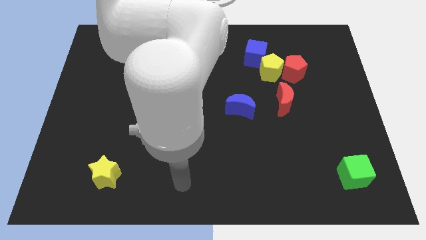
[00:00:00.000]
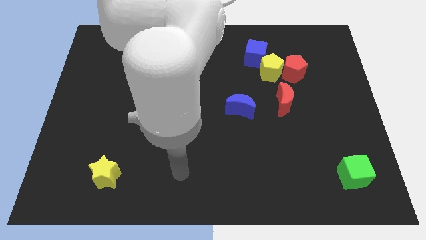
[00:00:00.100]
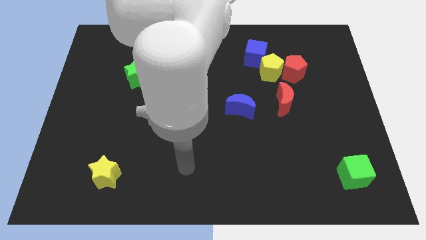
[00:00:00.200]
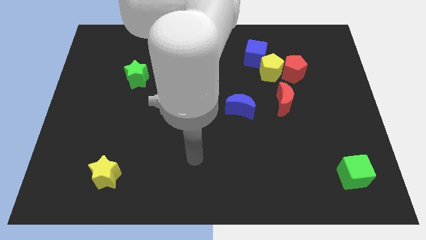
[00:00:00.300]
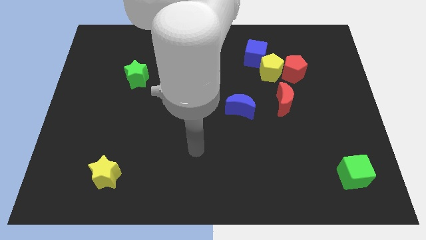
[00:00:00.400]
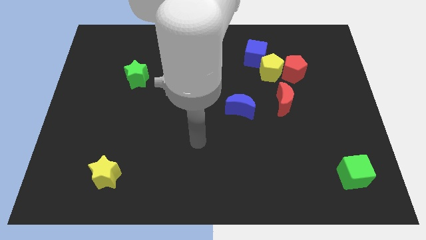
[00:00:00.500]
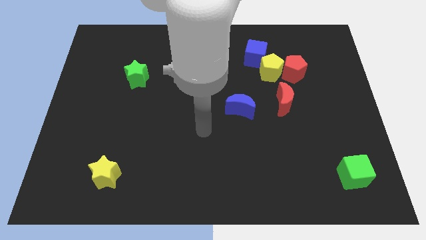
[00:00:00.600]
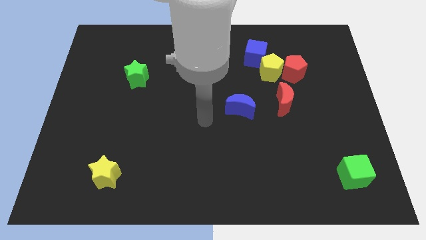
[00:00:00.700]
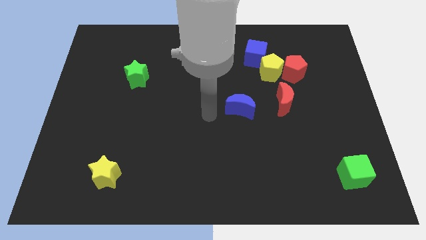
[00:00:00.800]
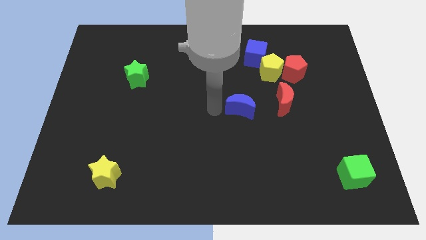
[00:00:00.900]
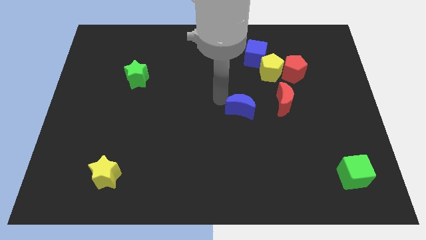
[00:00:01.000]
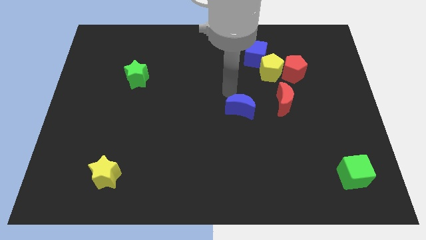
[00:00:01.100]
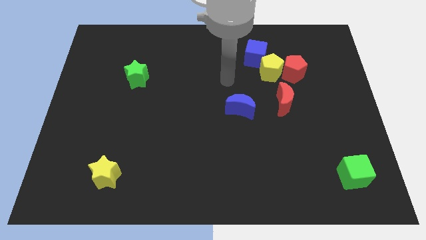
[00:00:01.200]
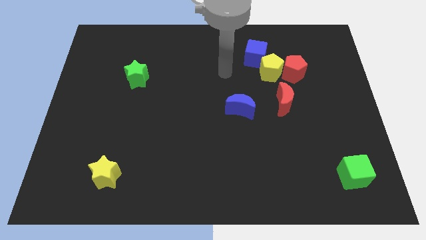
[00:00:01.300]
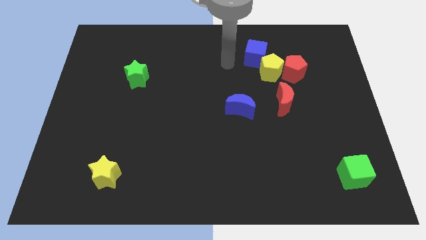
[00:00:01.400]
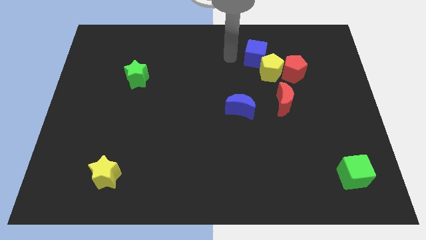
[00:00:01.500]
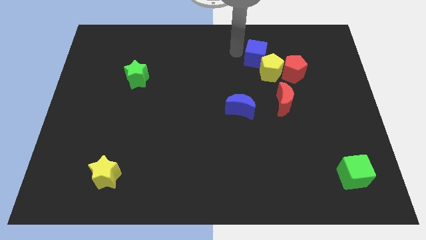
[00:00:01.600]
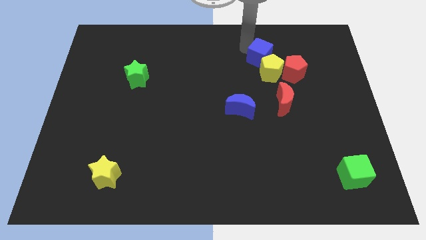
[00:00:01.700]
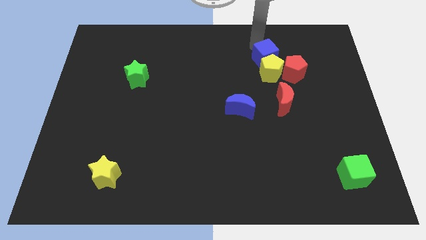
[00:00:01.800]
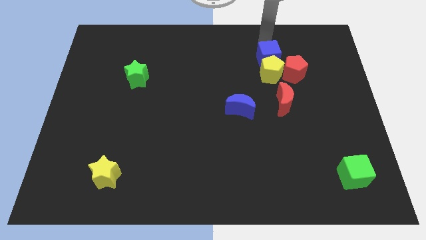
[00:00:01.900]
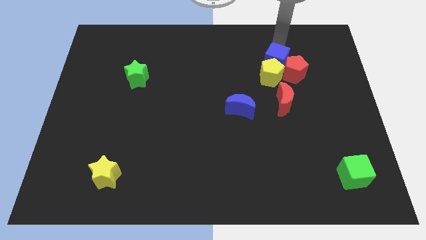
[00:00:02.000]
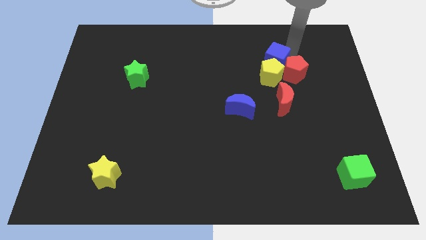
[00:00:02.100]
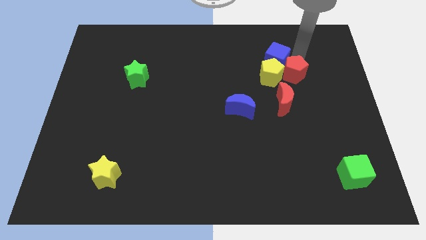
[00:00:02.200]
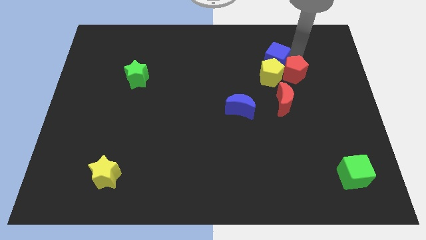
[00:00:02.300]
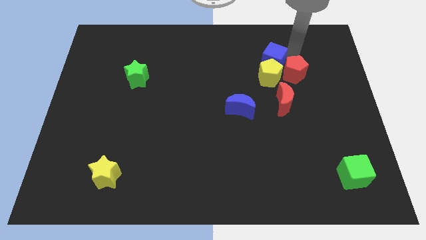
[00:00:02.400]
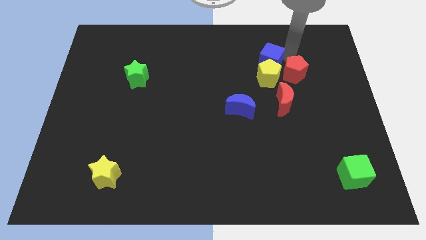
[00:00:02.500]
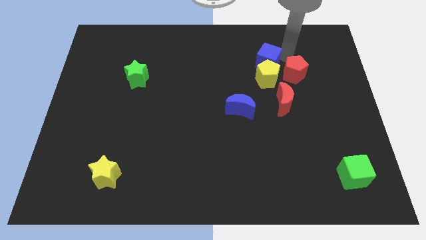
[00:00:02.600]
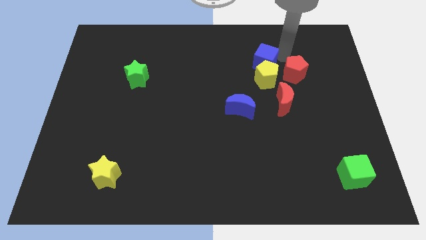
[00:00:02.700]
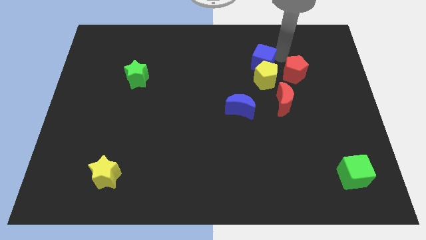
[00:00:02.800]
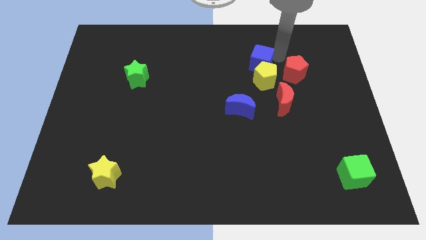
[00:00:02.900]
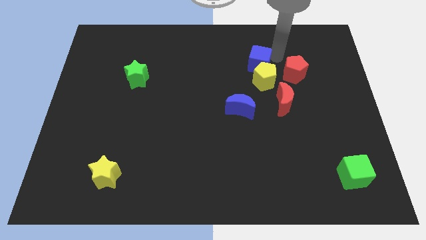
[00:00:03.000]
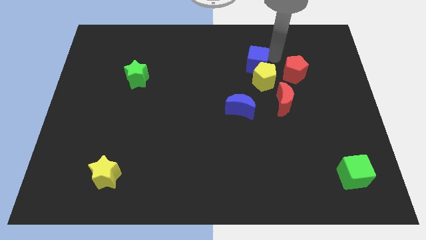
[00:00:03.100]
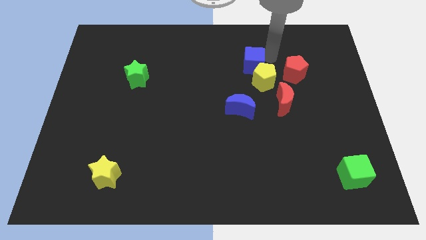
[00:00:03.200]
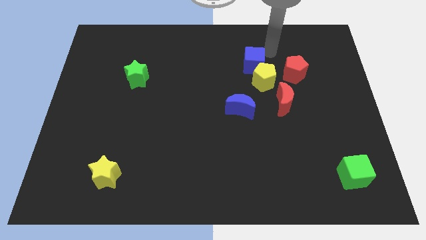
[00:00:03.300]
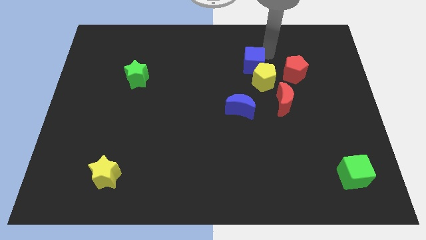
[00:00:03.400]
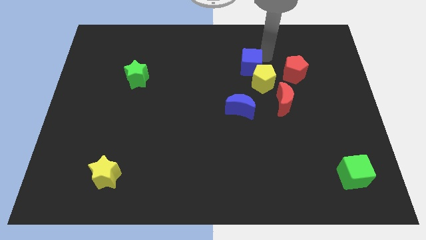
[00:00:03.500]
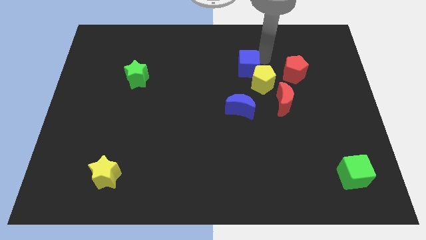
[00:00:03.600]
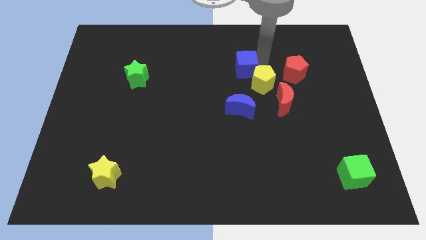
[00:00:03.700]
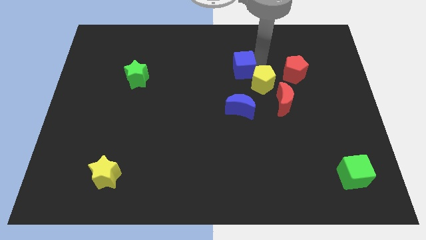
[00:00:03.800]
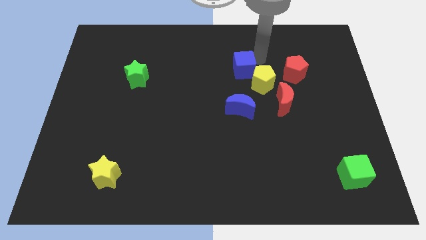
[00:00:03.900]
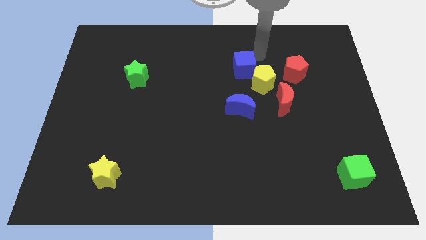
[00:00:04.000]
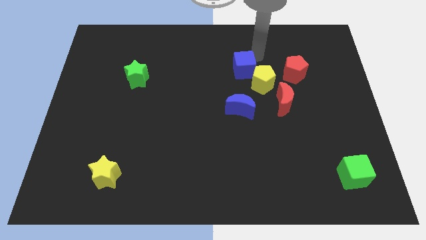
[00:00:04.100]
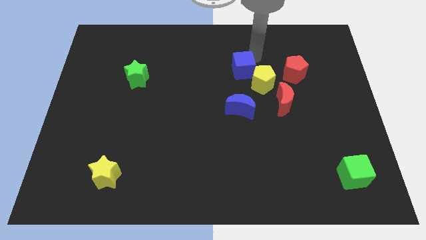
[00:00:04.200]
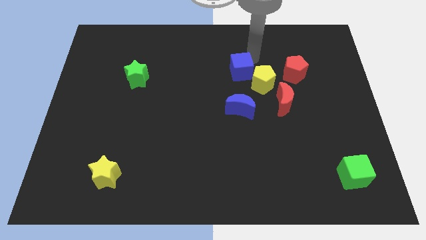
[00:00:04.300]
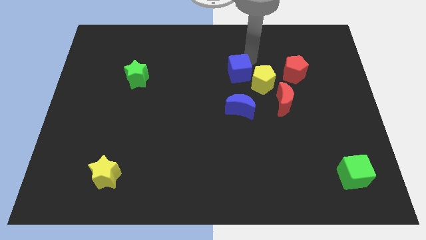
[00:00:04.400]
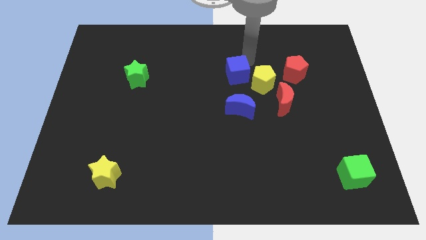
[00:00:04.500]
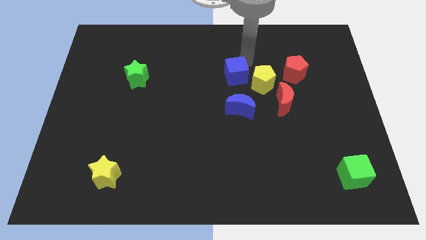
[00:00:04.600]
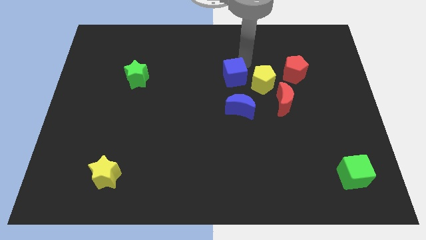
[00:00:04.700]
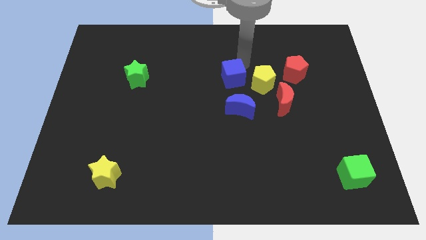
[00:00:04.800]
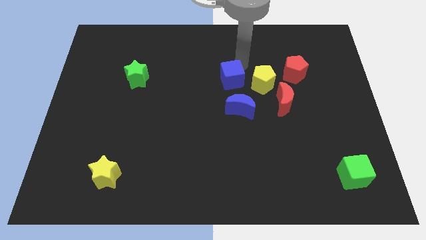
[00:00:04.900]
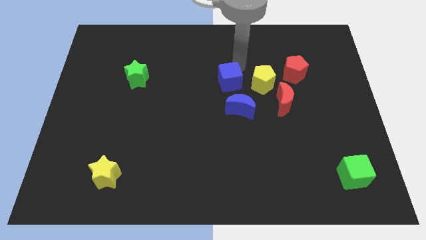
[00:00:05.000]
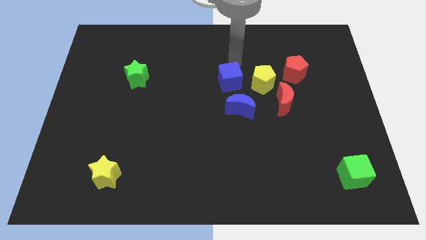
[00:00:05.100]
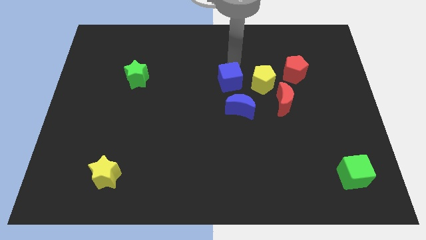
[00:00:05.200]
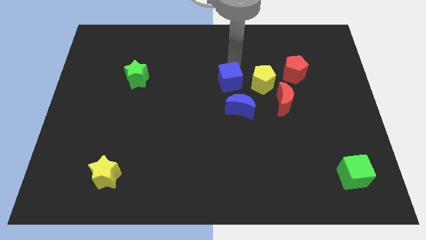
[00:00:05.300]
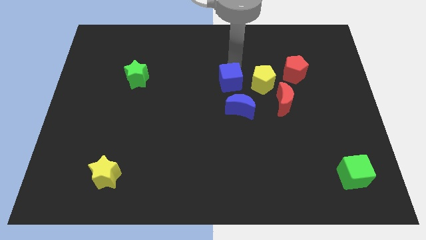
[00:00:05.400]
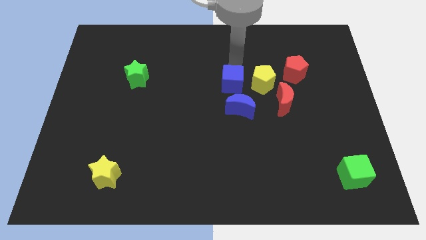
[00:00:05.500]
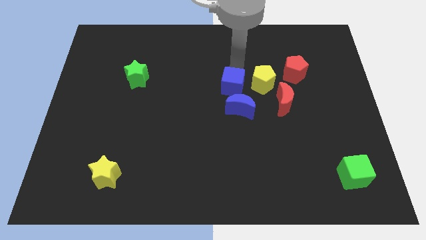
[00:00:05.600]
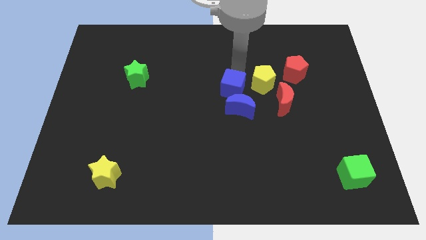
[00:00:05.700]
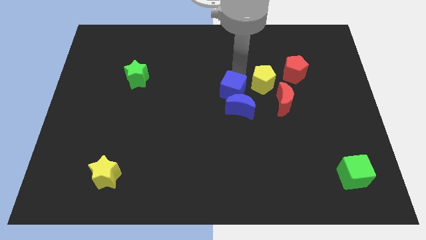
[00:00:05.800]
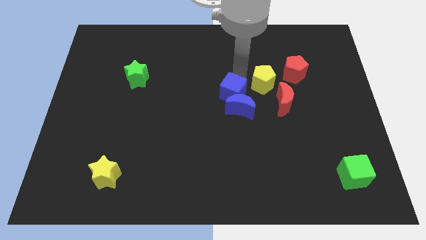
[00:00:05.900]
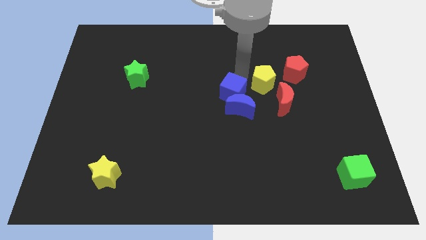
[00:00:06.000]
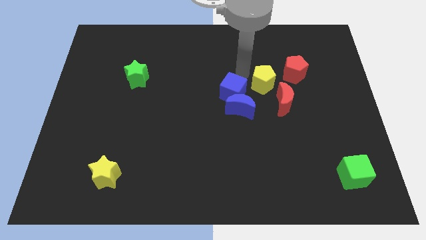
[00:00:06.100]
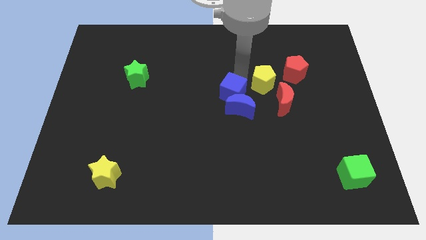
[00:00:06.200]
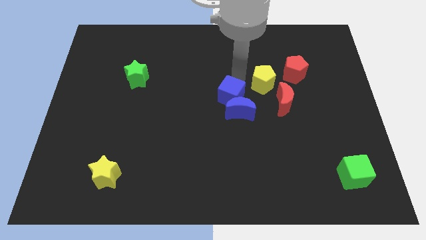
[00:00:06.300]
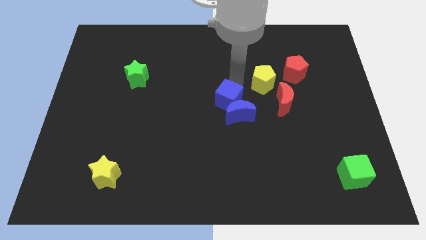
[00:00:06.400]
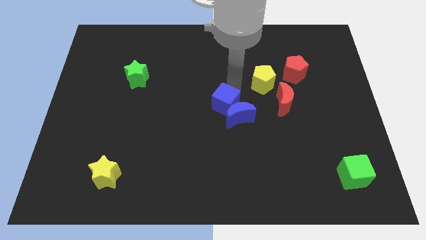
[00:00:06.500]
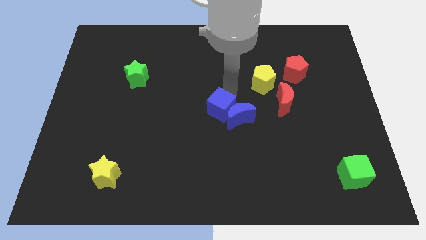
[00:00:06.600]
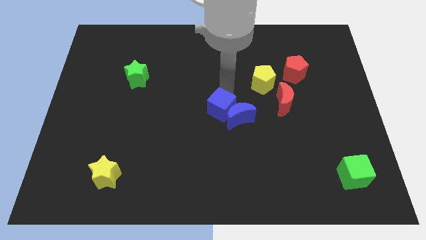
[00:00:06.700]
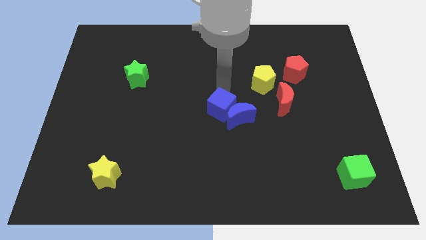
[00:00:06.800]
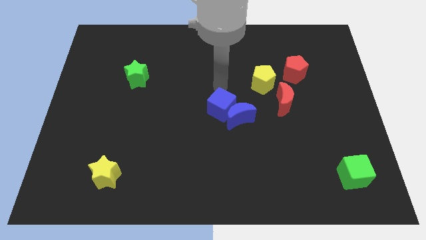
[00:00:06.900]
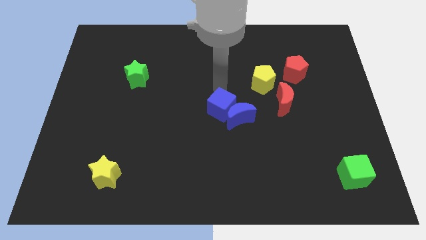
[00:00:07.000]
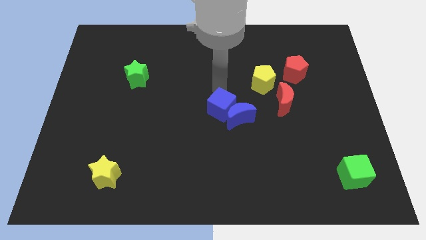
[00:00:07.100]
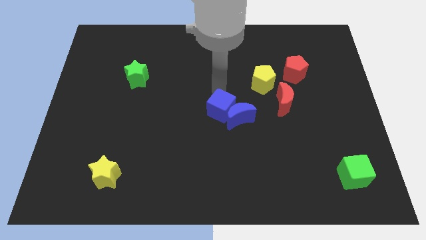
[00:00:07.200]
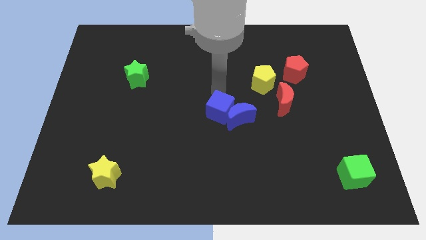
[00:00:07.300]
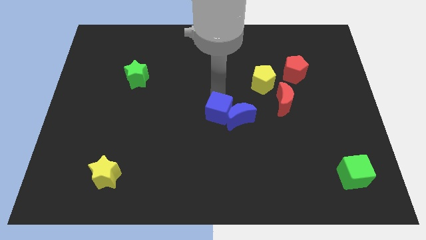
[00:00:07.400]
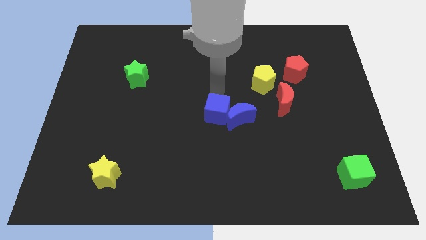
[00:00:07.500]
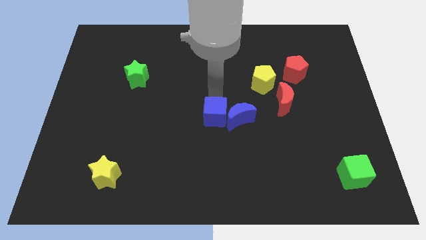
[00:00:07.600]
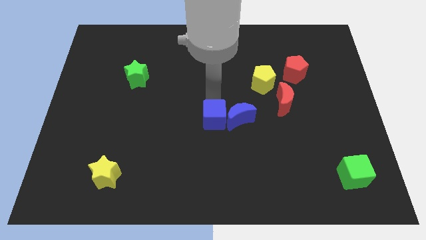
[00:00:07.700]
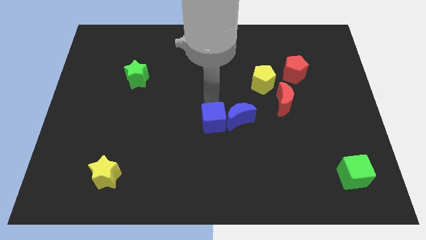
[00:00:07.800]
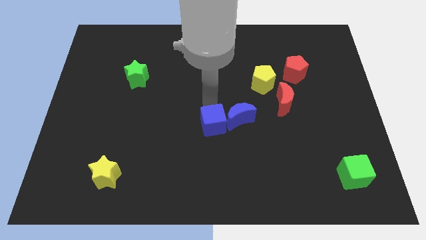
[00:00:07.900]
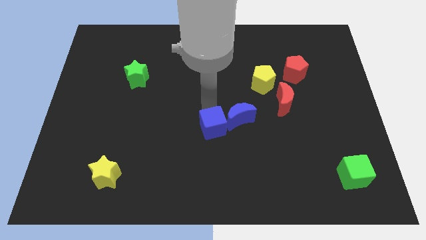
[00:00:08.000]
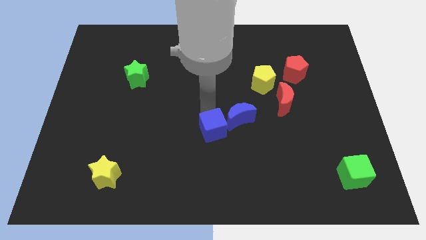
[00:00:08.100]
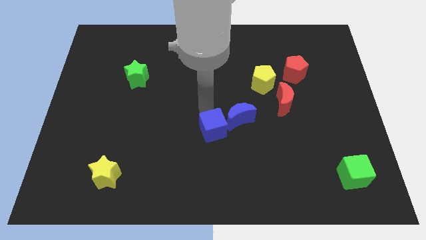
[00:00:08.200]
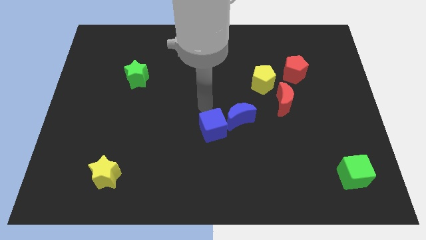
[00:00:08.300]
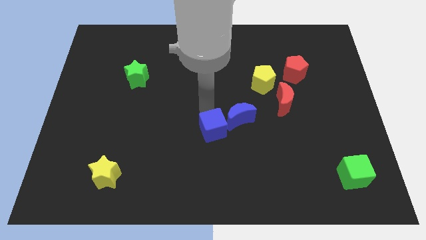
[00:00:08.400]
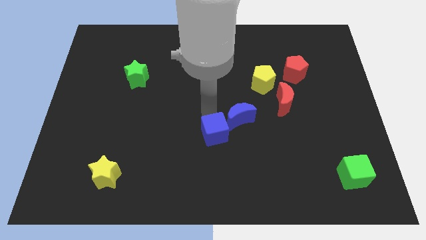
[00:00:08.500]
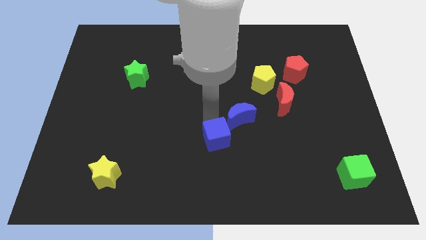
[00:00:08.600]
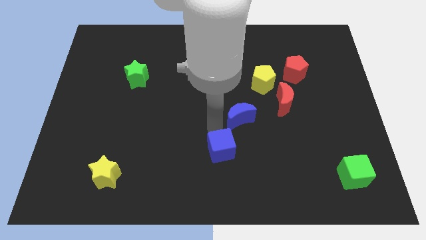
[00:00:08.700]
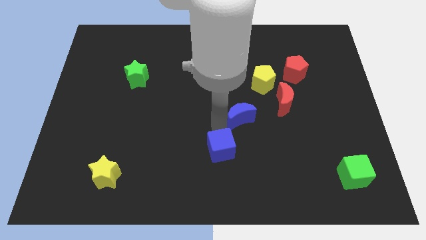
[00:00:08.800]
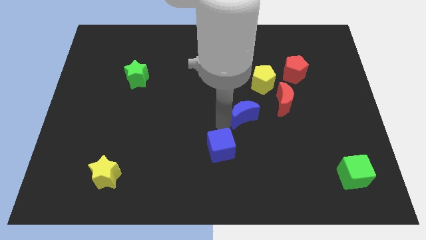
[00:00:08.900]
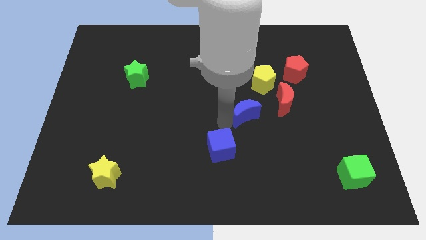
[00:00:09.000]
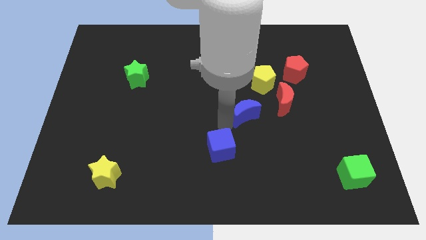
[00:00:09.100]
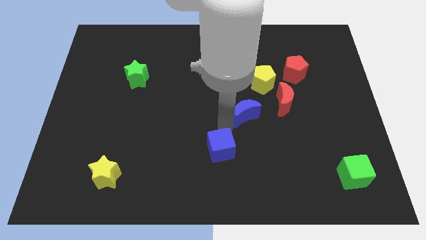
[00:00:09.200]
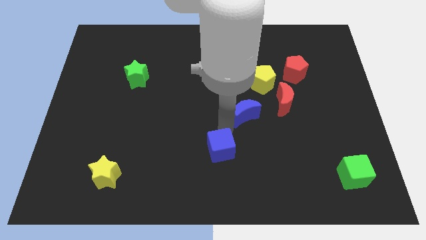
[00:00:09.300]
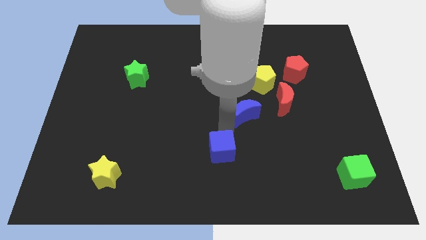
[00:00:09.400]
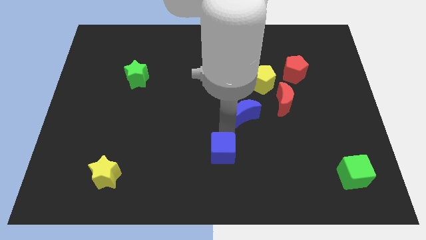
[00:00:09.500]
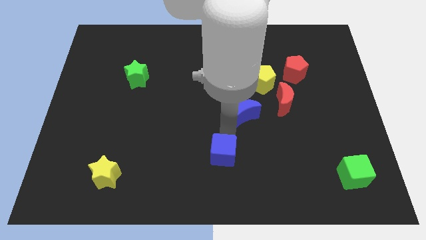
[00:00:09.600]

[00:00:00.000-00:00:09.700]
push the blue cube to the bottom side
